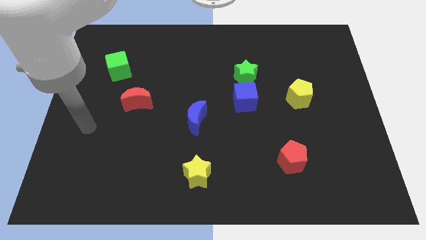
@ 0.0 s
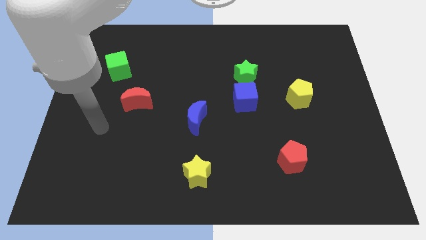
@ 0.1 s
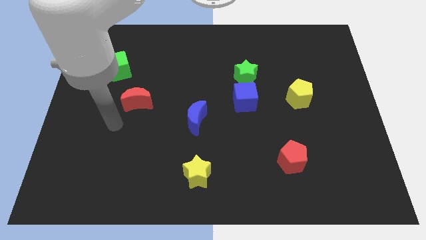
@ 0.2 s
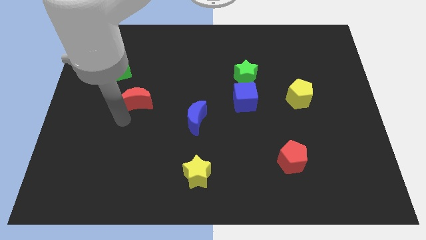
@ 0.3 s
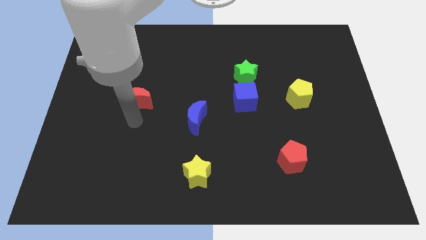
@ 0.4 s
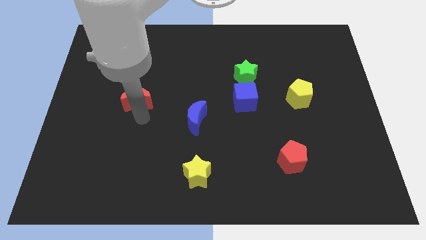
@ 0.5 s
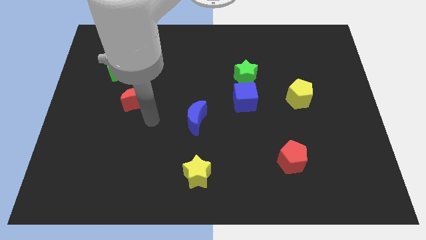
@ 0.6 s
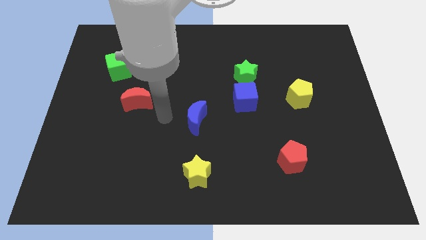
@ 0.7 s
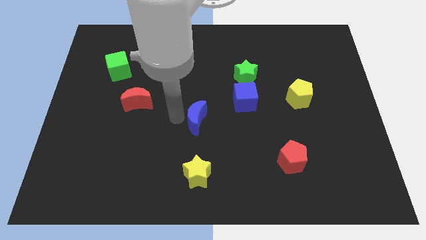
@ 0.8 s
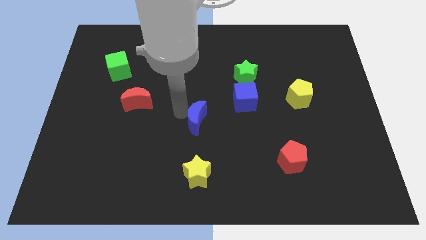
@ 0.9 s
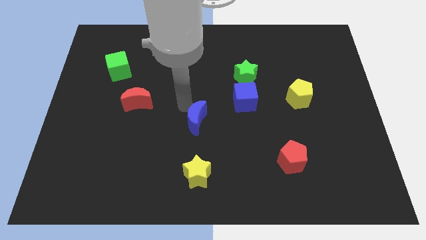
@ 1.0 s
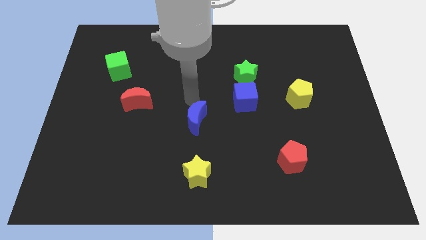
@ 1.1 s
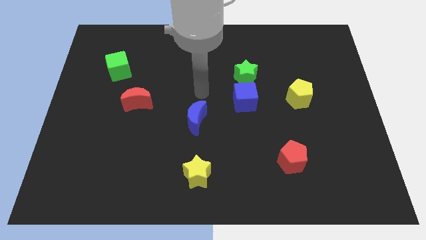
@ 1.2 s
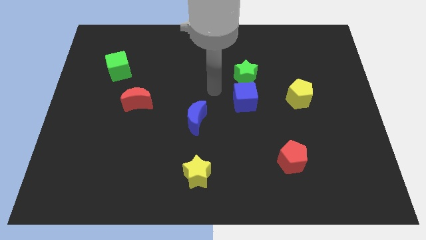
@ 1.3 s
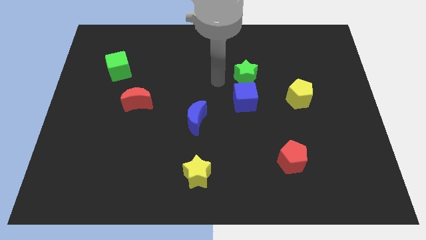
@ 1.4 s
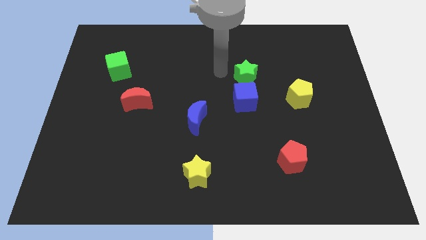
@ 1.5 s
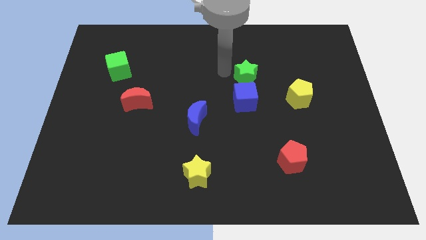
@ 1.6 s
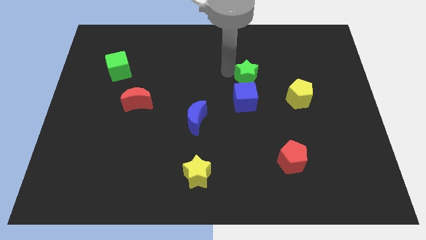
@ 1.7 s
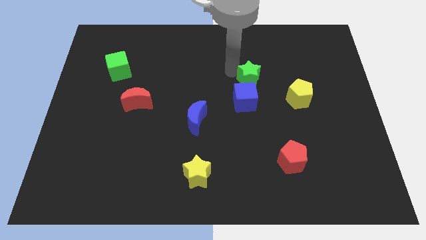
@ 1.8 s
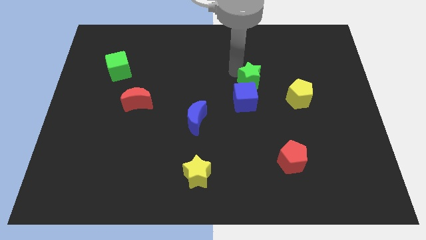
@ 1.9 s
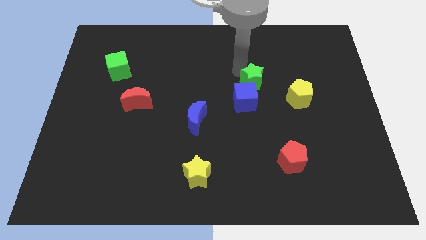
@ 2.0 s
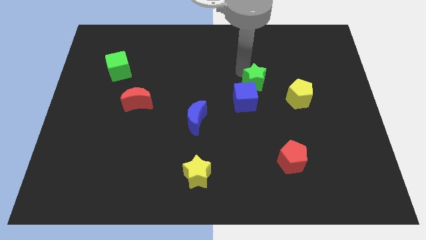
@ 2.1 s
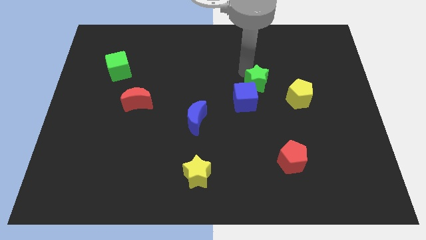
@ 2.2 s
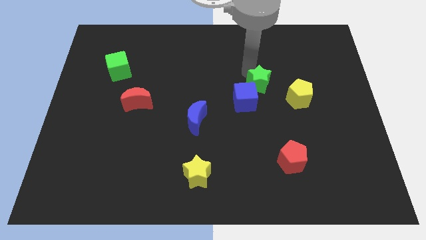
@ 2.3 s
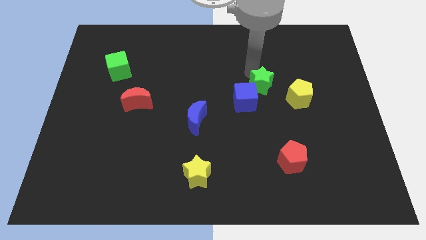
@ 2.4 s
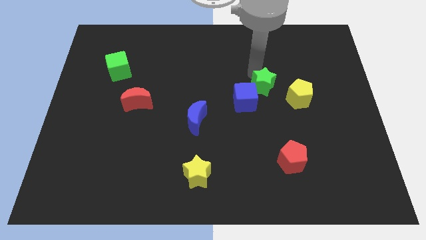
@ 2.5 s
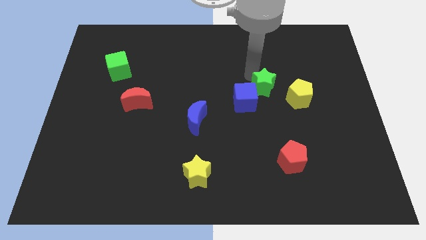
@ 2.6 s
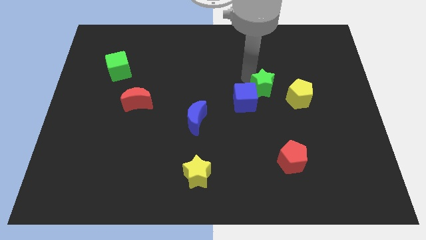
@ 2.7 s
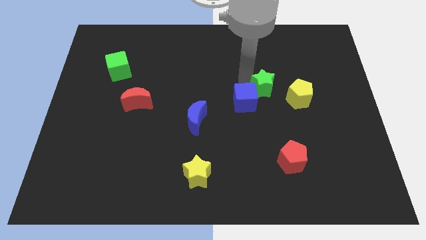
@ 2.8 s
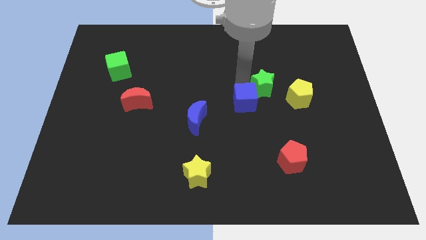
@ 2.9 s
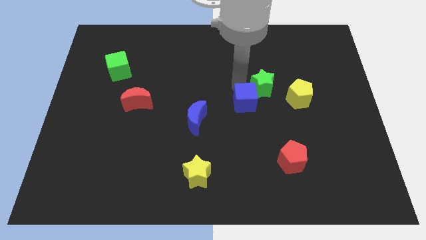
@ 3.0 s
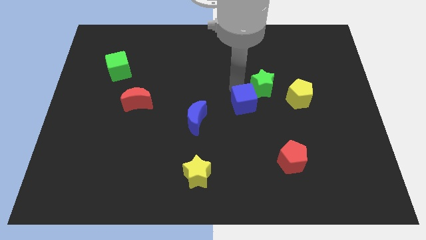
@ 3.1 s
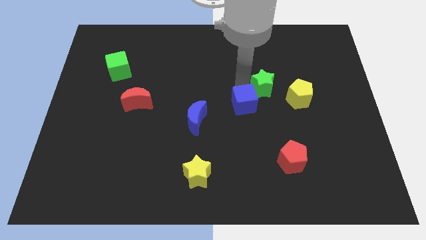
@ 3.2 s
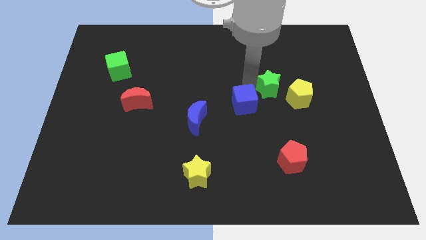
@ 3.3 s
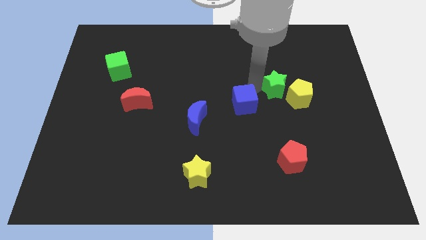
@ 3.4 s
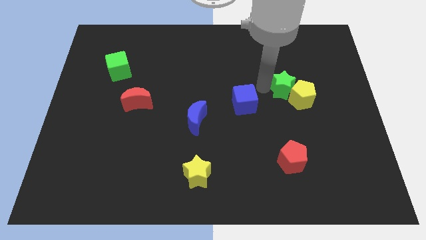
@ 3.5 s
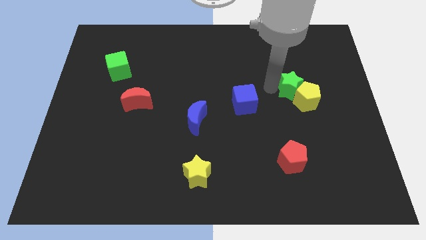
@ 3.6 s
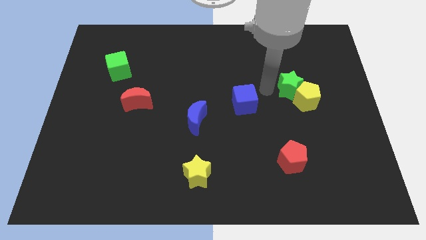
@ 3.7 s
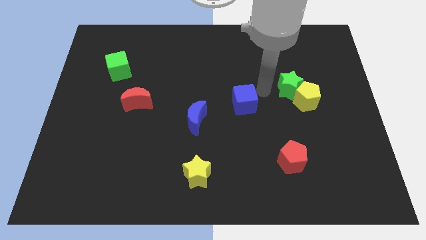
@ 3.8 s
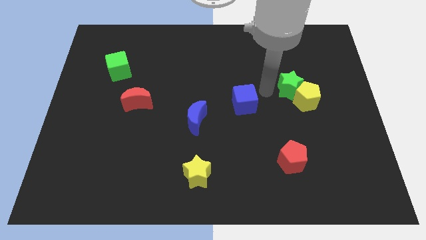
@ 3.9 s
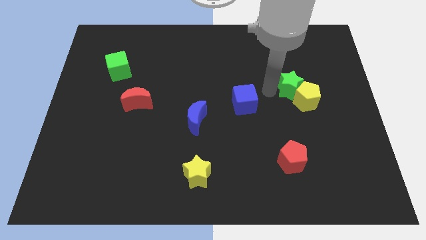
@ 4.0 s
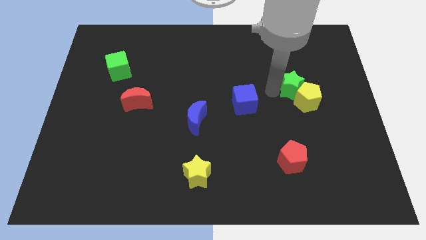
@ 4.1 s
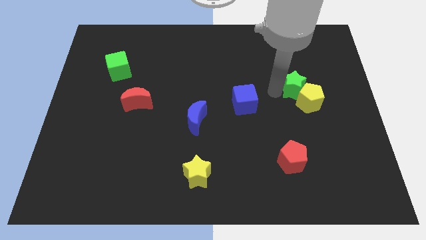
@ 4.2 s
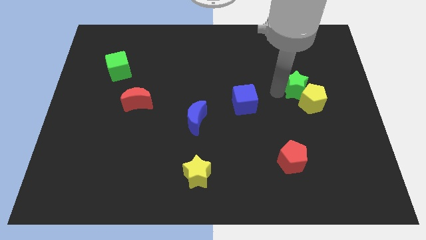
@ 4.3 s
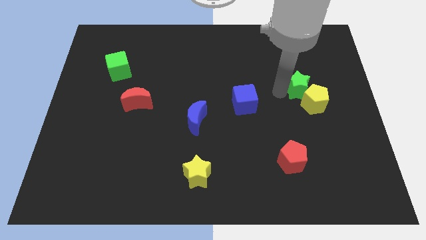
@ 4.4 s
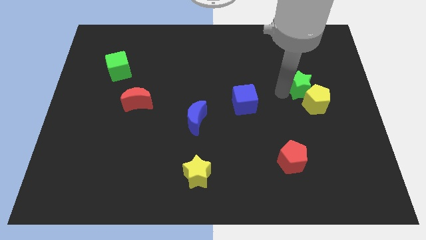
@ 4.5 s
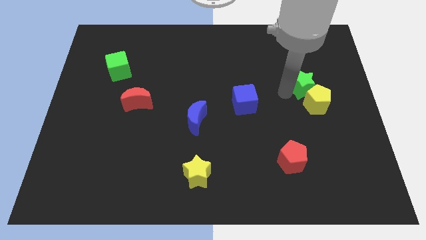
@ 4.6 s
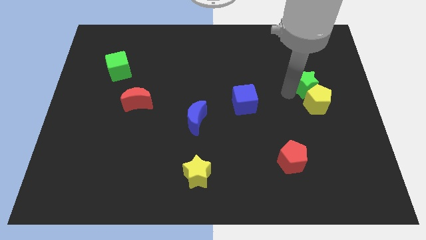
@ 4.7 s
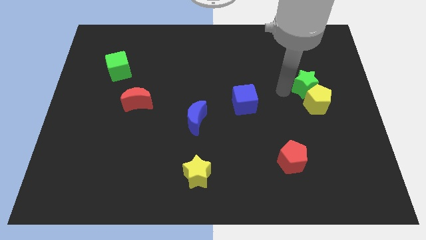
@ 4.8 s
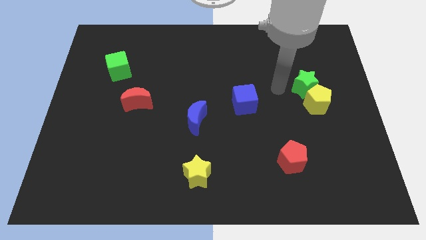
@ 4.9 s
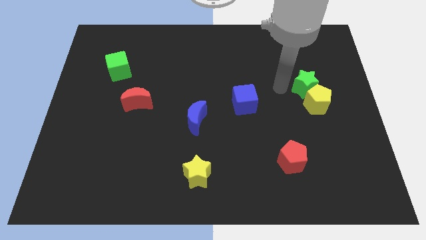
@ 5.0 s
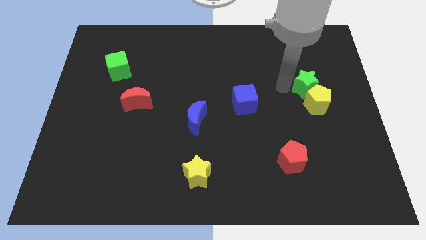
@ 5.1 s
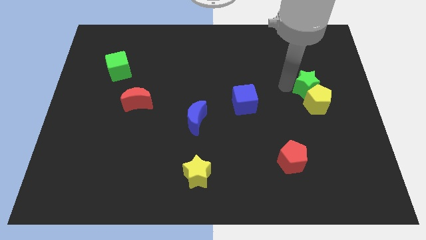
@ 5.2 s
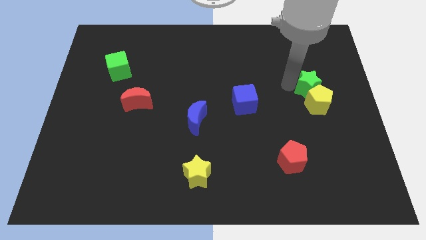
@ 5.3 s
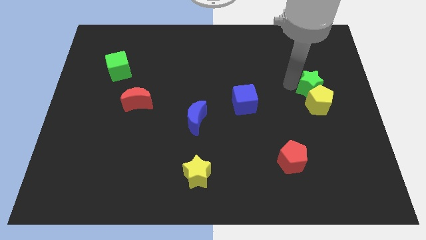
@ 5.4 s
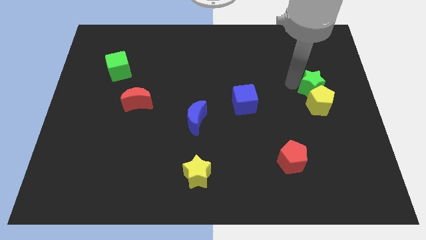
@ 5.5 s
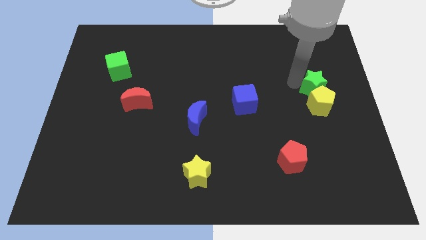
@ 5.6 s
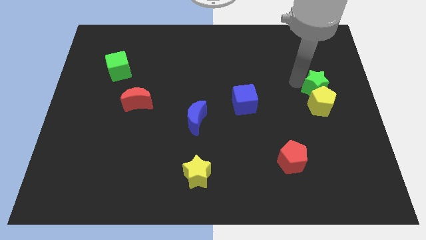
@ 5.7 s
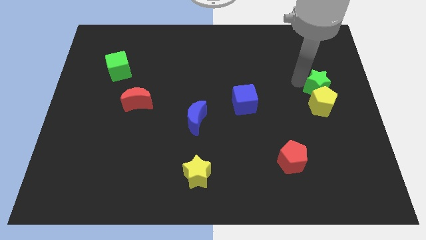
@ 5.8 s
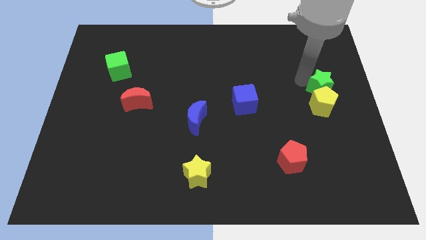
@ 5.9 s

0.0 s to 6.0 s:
move the green star to the center right
